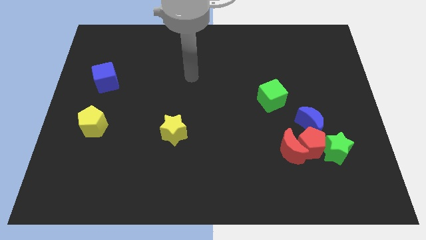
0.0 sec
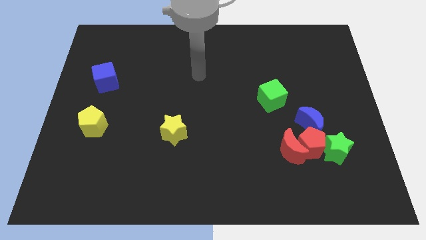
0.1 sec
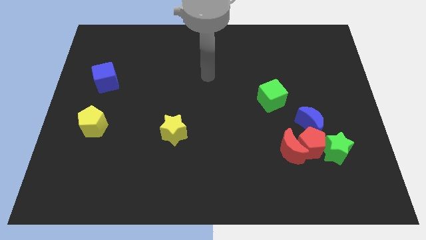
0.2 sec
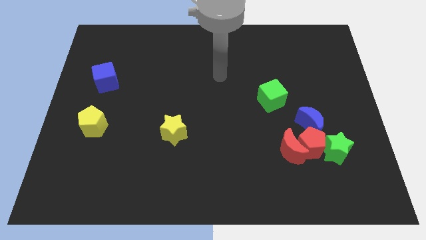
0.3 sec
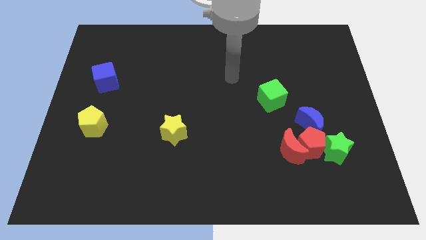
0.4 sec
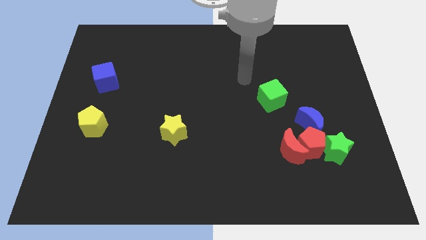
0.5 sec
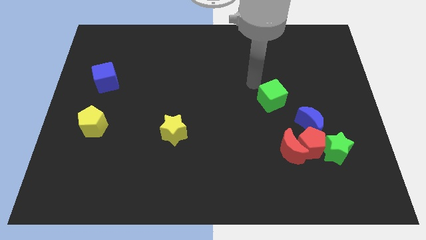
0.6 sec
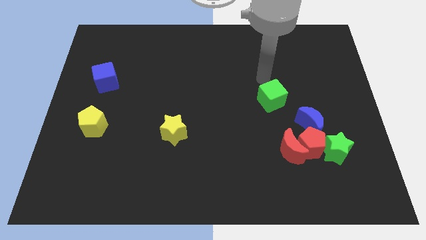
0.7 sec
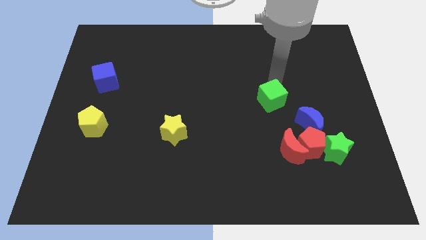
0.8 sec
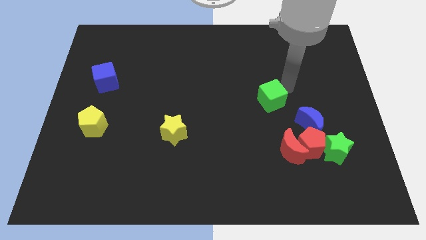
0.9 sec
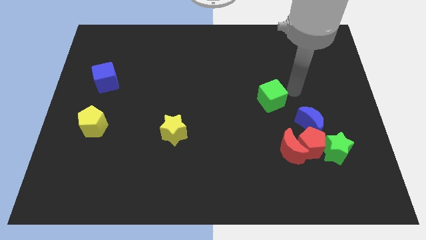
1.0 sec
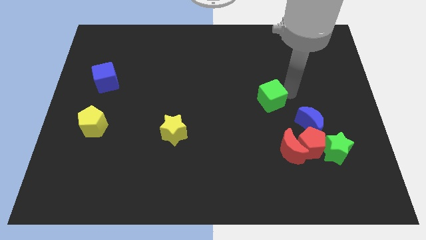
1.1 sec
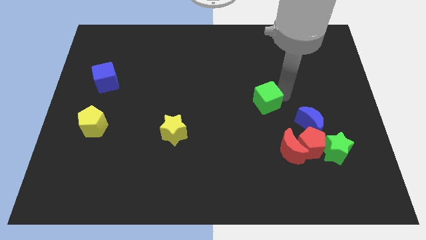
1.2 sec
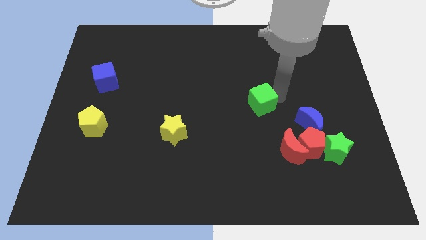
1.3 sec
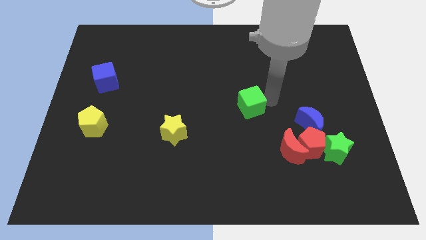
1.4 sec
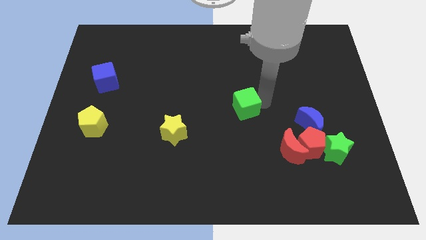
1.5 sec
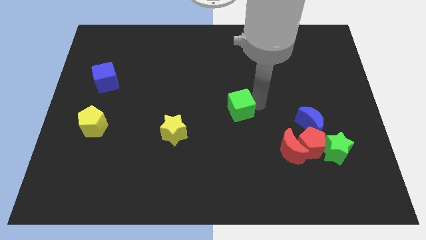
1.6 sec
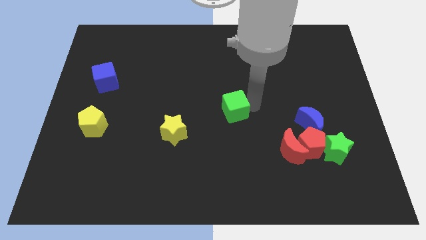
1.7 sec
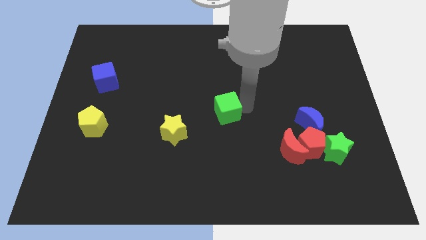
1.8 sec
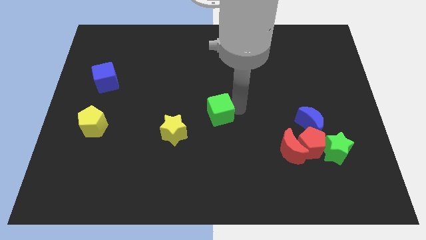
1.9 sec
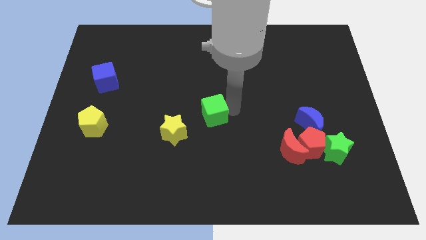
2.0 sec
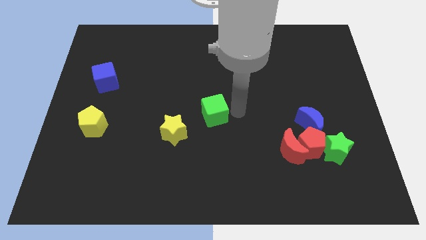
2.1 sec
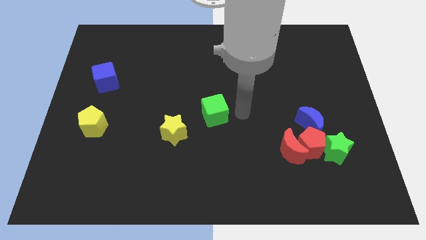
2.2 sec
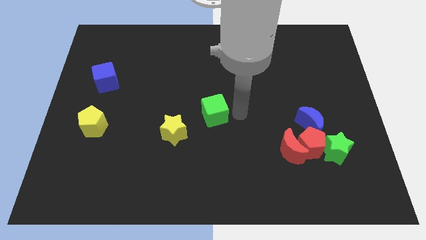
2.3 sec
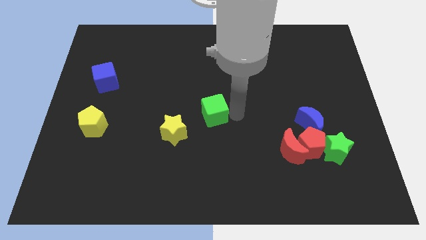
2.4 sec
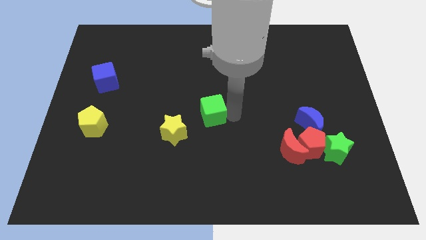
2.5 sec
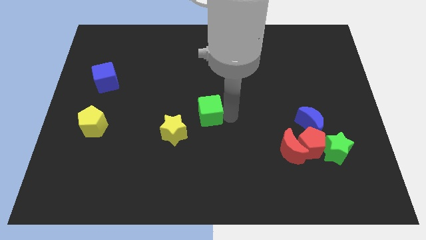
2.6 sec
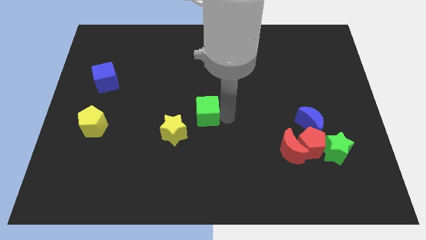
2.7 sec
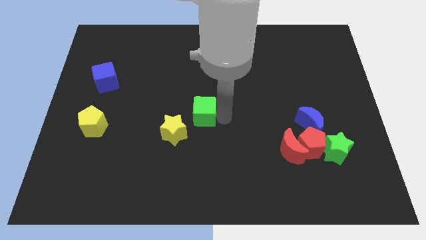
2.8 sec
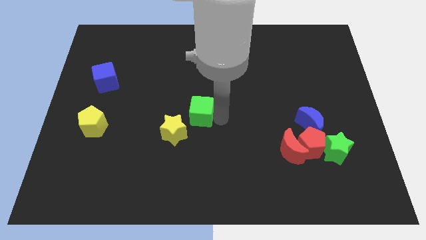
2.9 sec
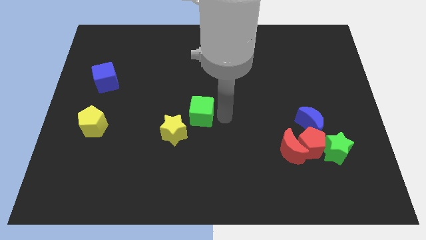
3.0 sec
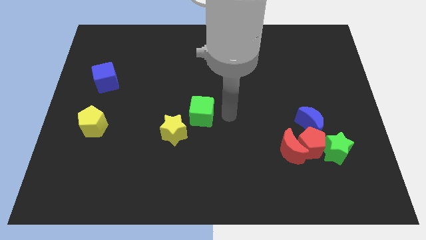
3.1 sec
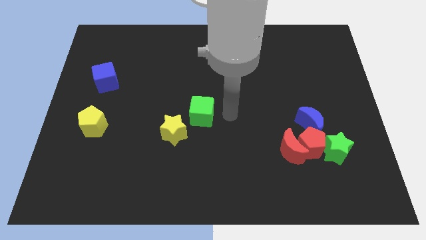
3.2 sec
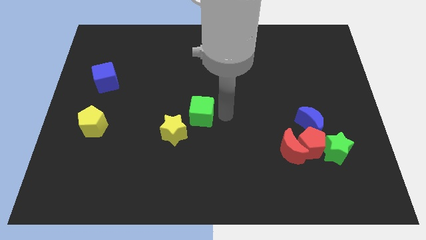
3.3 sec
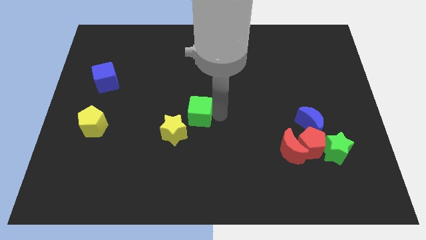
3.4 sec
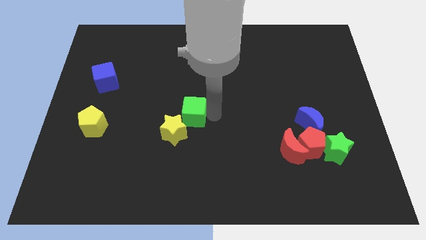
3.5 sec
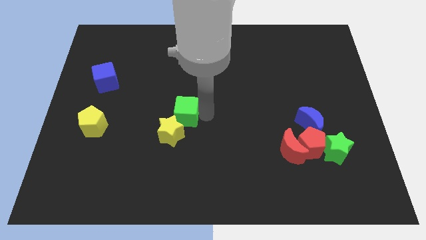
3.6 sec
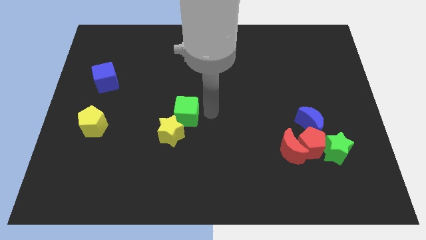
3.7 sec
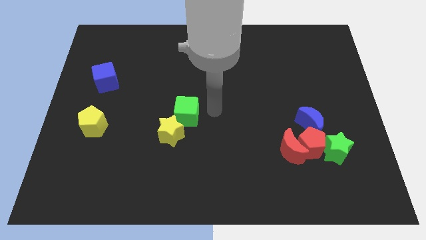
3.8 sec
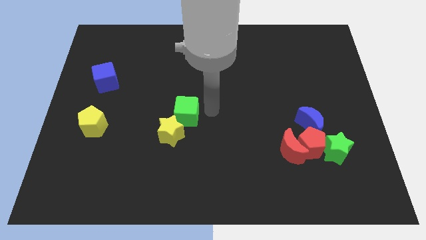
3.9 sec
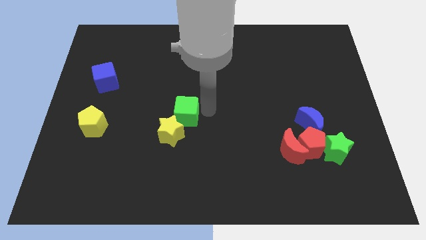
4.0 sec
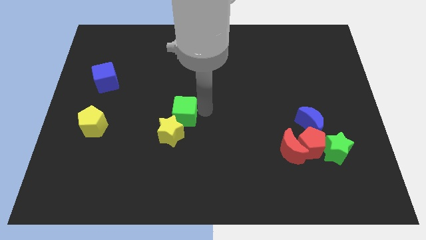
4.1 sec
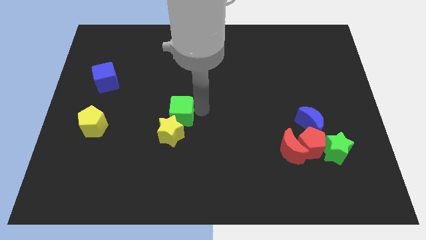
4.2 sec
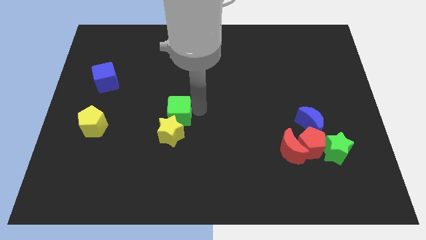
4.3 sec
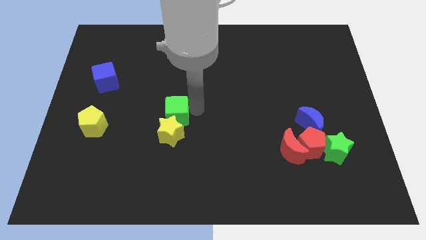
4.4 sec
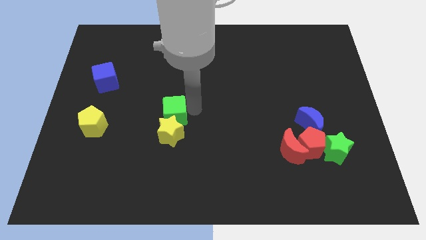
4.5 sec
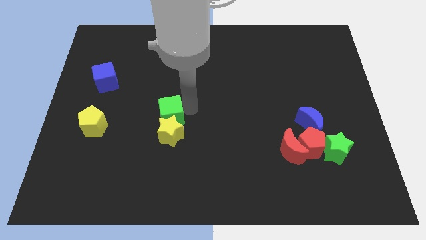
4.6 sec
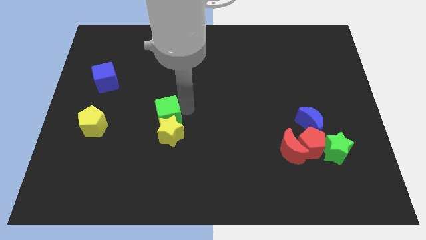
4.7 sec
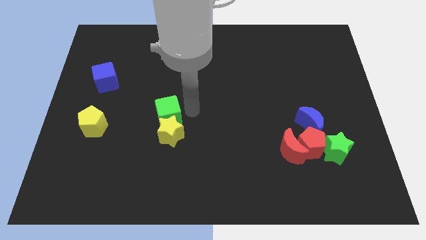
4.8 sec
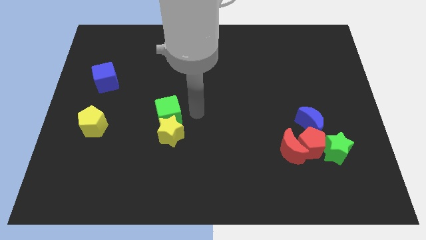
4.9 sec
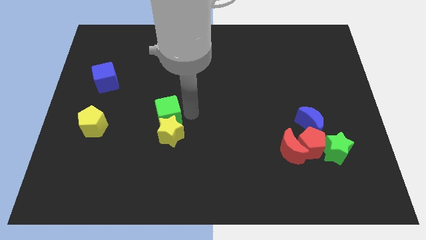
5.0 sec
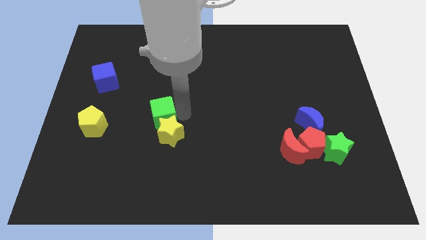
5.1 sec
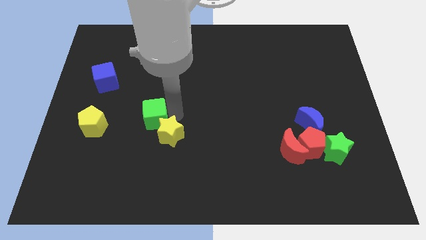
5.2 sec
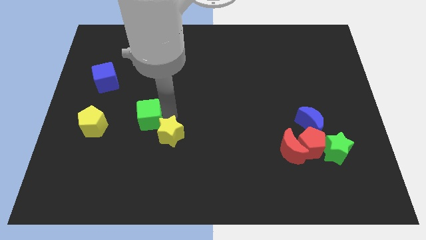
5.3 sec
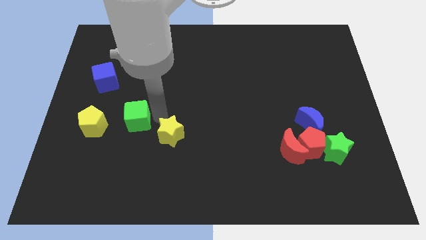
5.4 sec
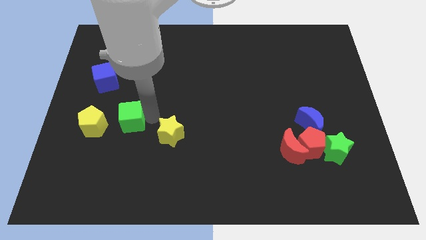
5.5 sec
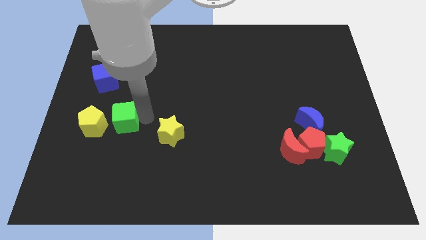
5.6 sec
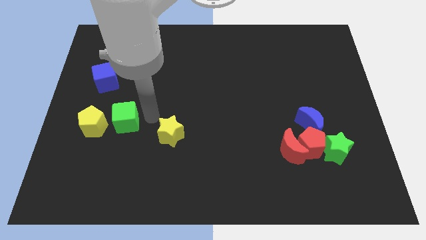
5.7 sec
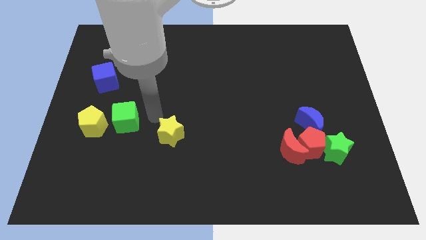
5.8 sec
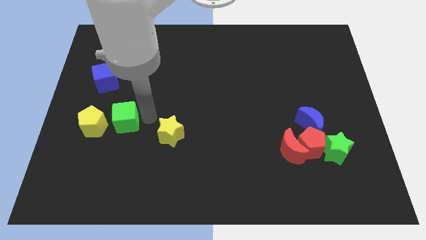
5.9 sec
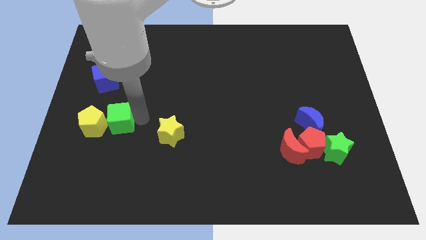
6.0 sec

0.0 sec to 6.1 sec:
move the green cube close to the yellow pentagon

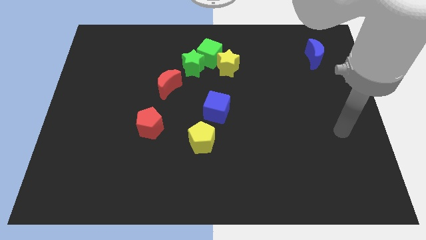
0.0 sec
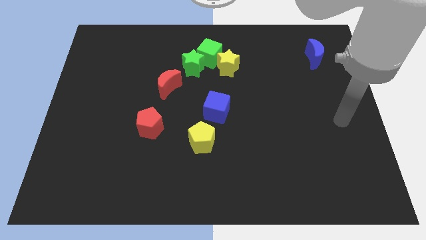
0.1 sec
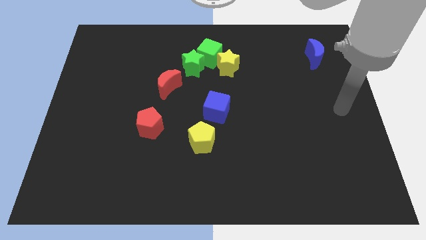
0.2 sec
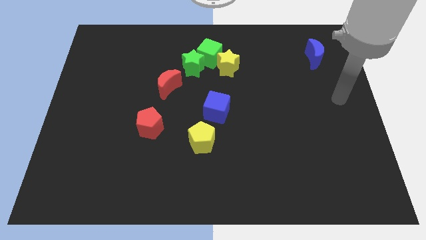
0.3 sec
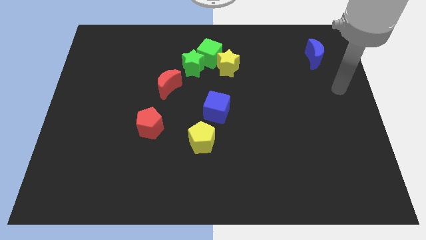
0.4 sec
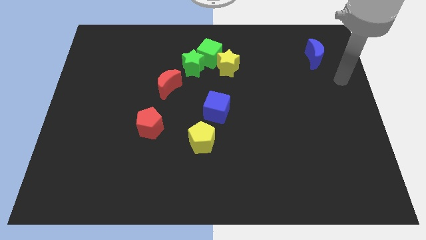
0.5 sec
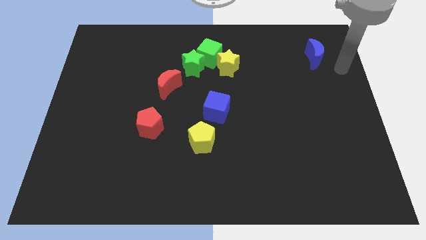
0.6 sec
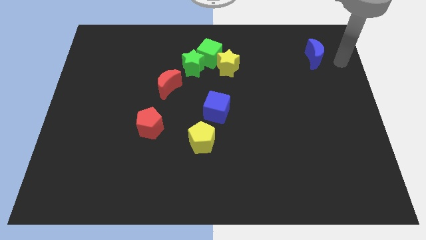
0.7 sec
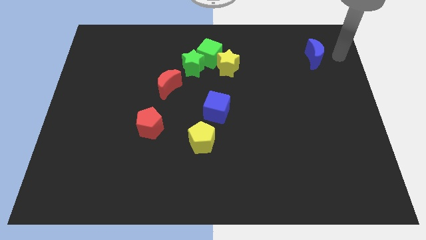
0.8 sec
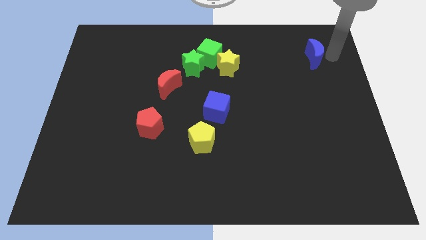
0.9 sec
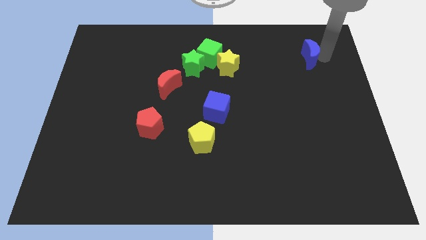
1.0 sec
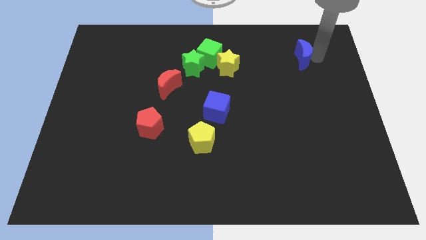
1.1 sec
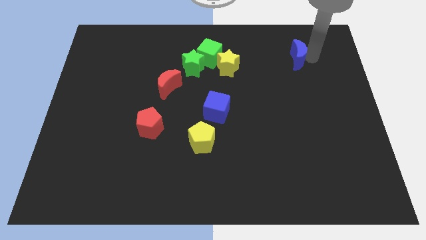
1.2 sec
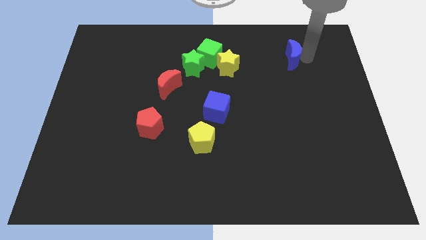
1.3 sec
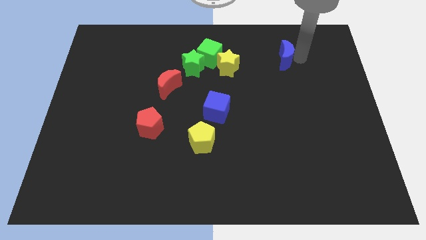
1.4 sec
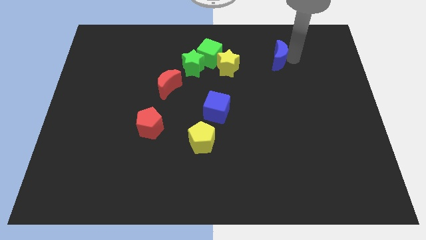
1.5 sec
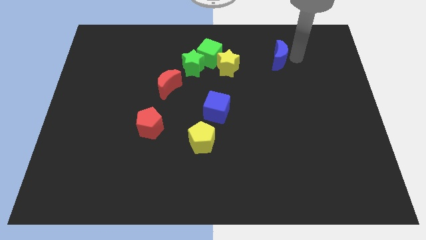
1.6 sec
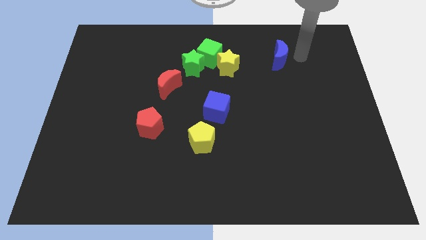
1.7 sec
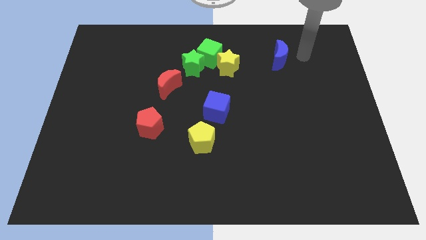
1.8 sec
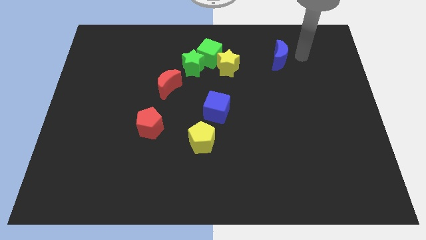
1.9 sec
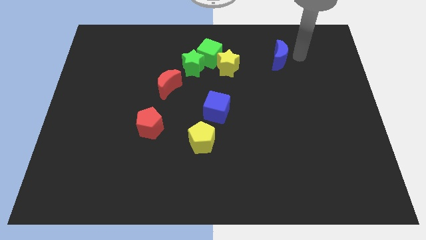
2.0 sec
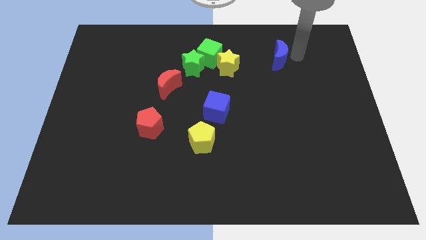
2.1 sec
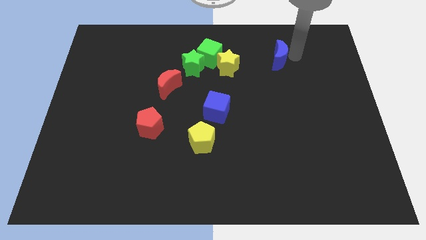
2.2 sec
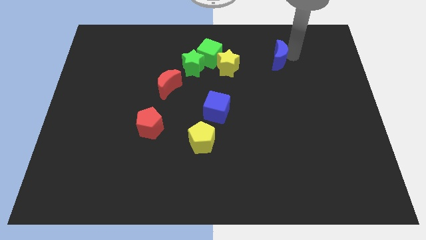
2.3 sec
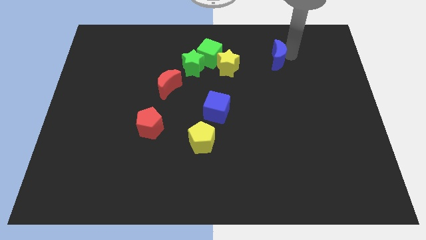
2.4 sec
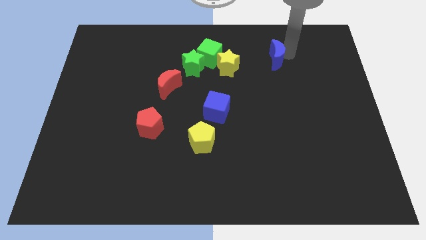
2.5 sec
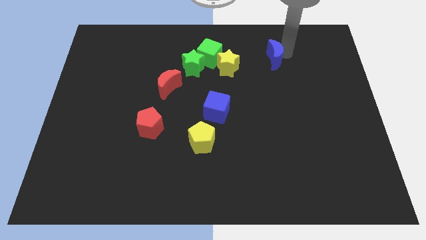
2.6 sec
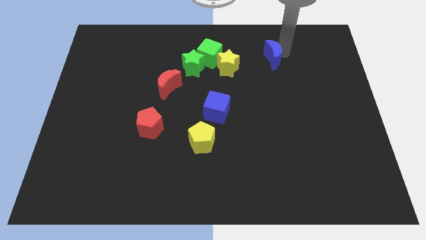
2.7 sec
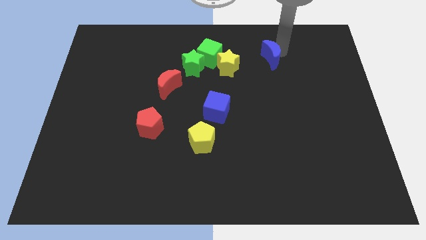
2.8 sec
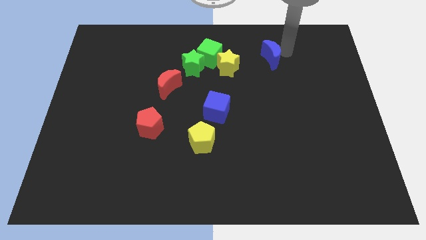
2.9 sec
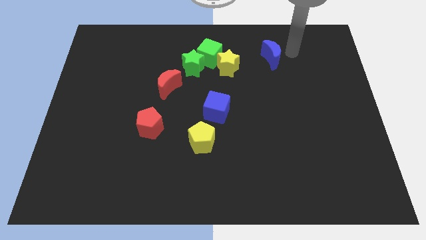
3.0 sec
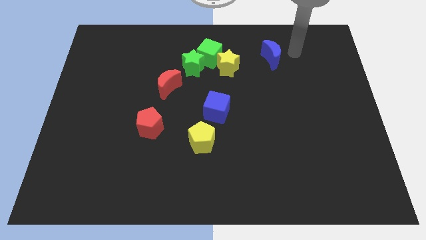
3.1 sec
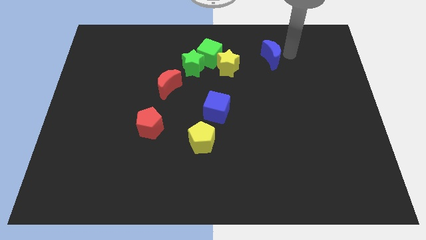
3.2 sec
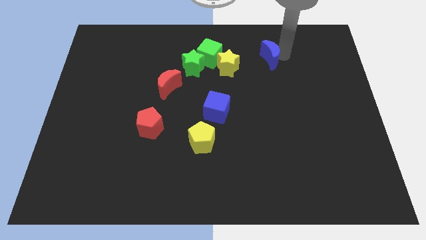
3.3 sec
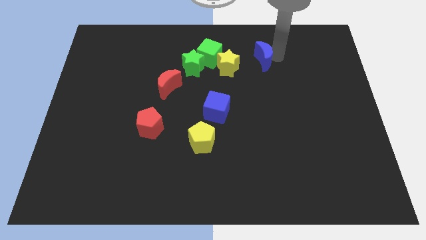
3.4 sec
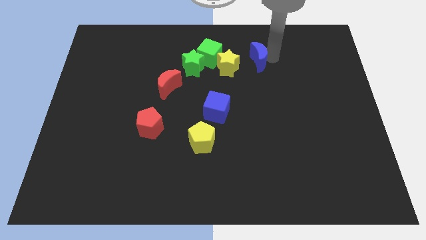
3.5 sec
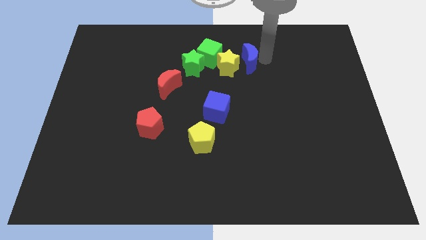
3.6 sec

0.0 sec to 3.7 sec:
slide the blue moon next to the yellow star
